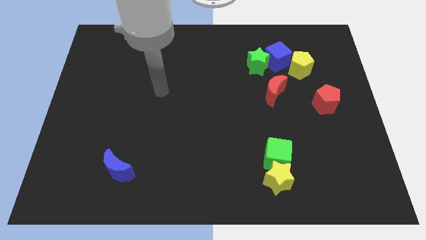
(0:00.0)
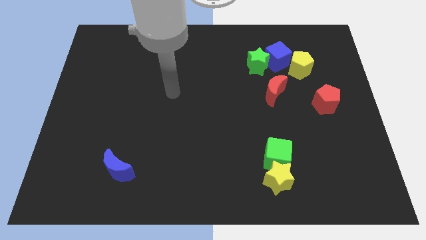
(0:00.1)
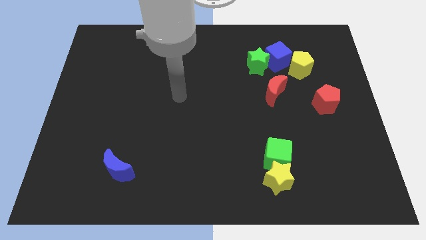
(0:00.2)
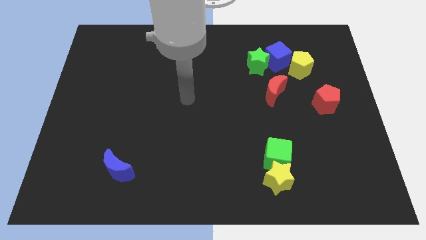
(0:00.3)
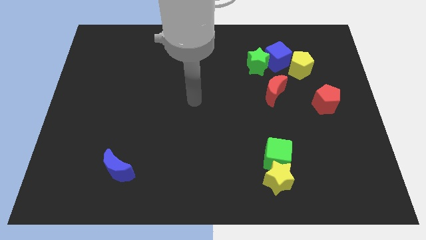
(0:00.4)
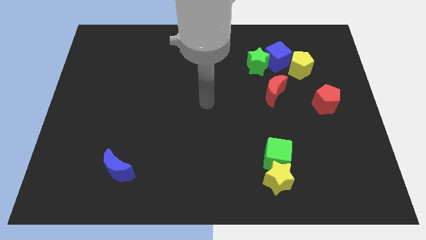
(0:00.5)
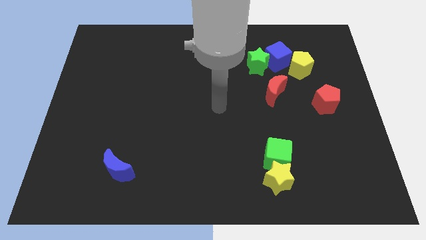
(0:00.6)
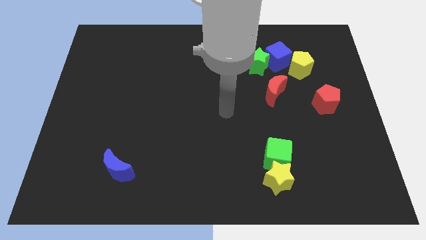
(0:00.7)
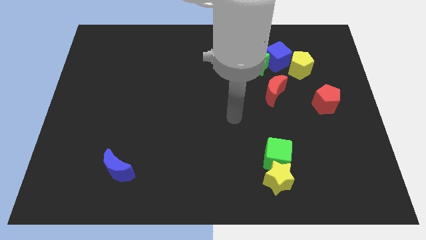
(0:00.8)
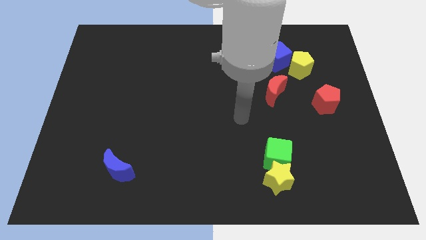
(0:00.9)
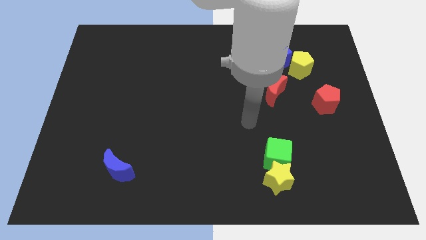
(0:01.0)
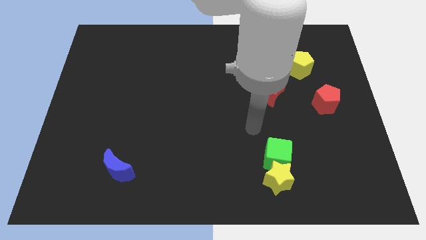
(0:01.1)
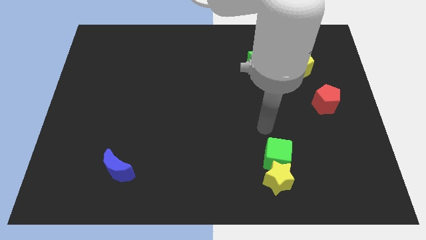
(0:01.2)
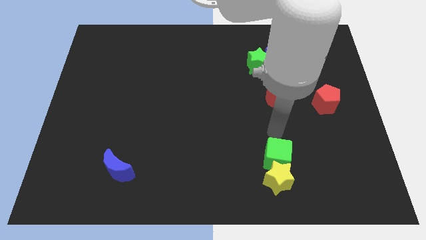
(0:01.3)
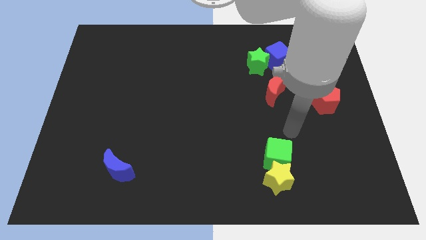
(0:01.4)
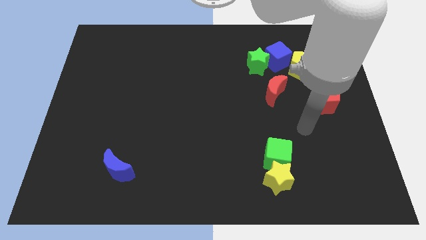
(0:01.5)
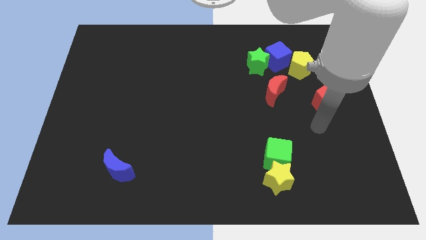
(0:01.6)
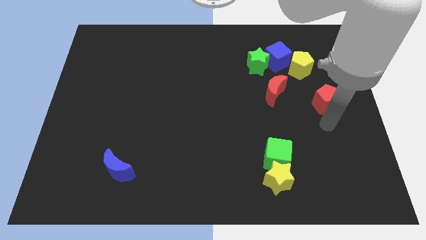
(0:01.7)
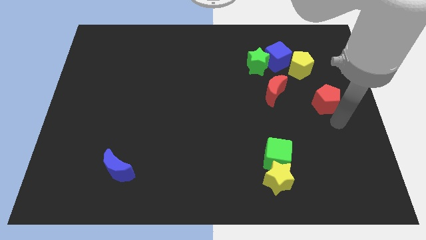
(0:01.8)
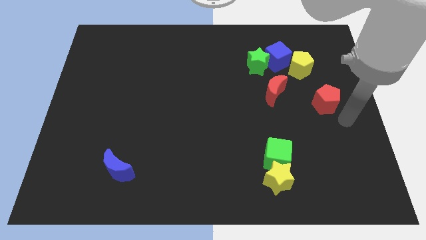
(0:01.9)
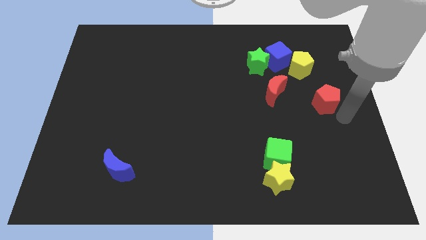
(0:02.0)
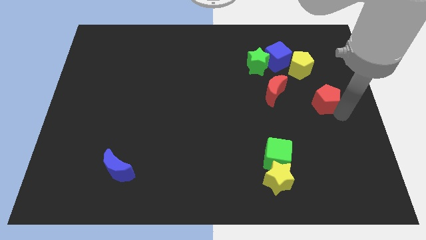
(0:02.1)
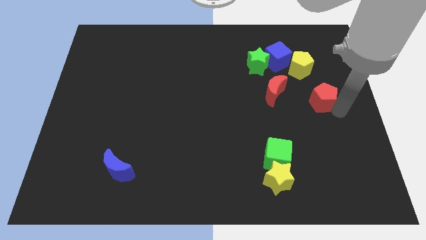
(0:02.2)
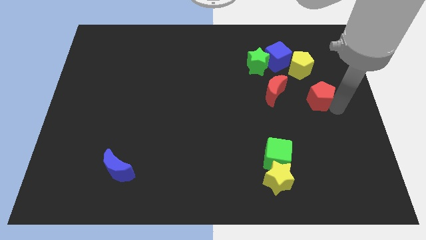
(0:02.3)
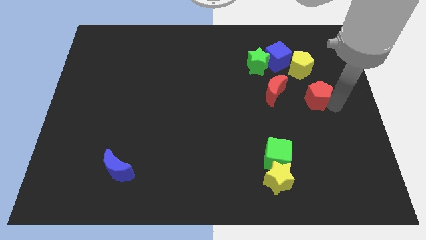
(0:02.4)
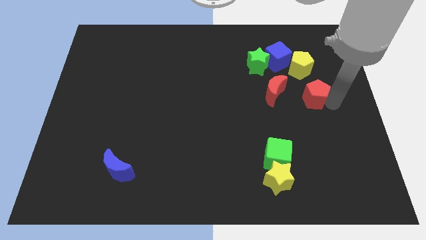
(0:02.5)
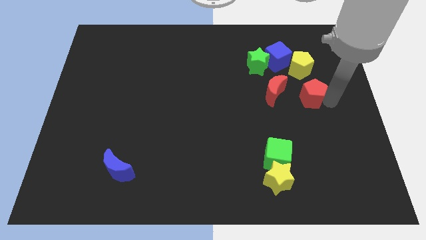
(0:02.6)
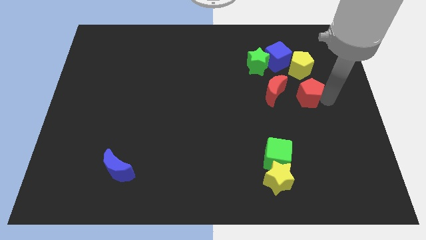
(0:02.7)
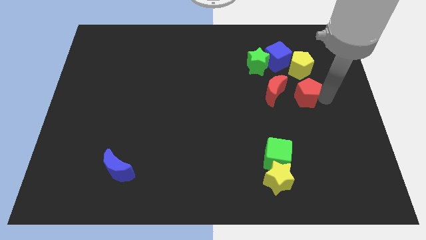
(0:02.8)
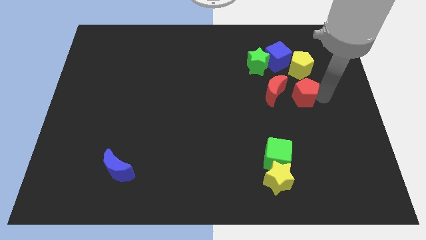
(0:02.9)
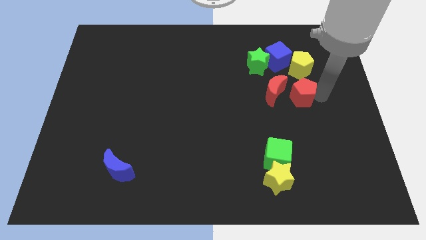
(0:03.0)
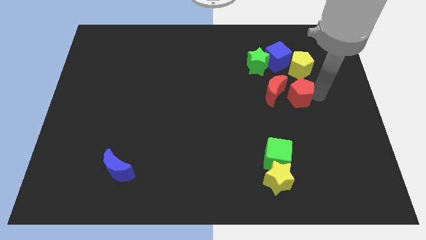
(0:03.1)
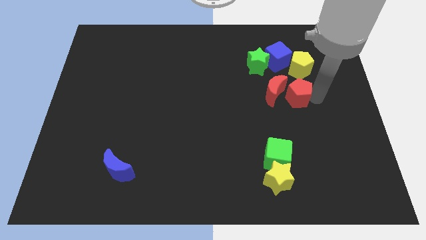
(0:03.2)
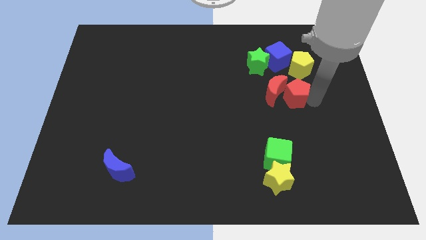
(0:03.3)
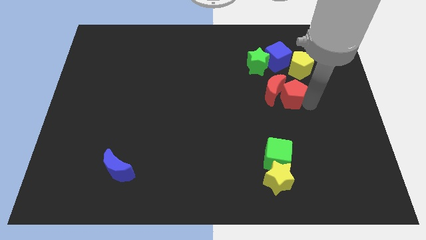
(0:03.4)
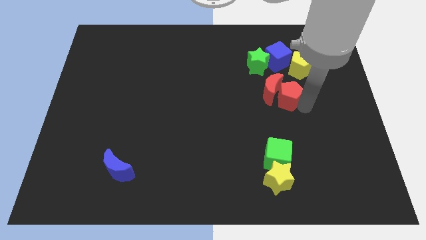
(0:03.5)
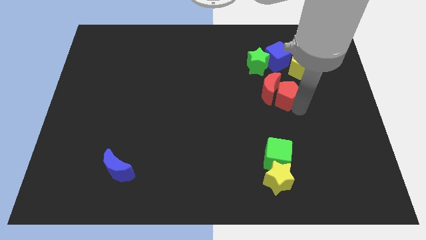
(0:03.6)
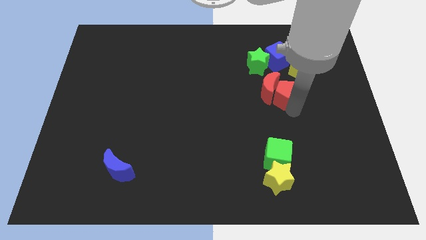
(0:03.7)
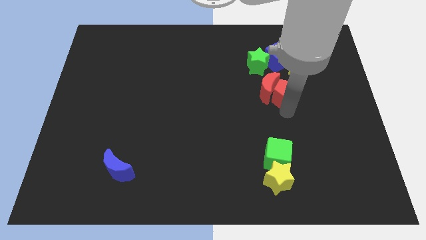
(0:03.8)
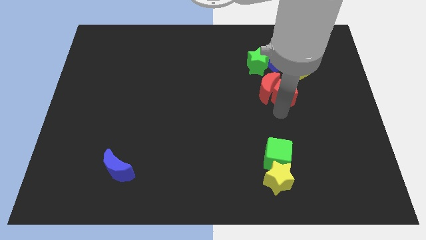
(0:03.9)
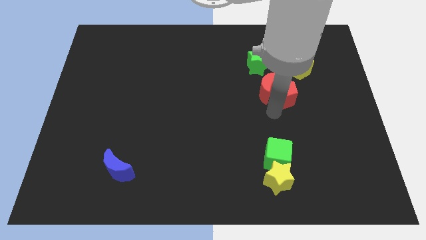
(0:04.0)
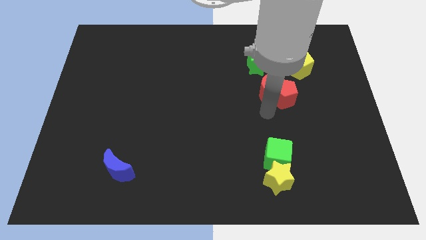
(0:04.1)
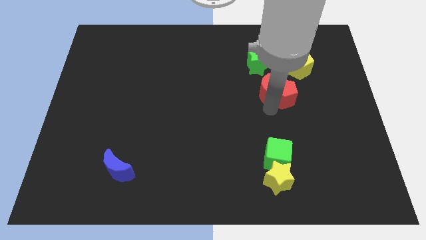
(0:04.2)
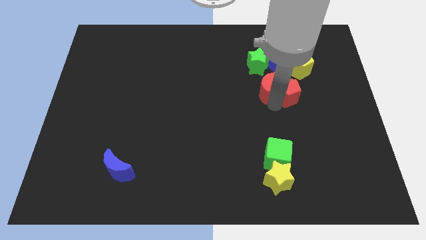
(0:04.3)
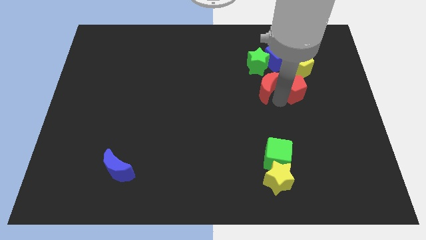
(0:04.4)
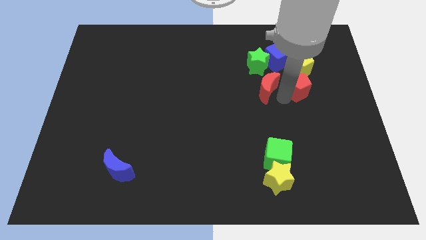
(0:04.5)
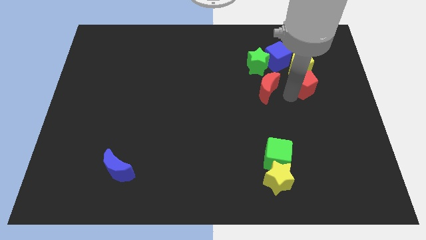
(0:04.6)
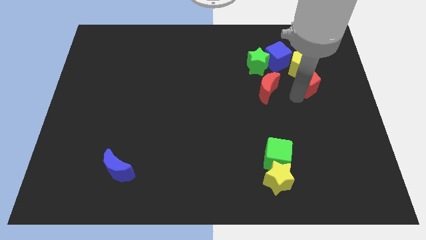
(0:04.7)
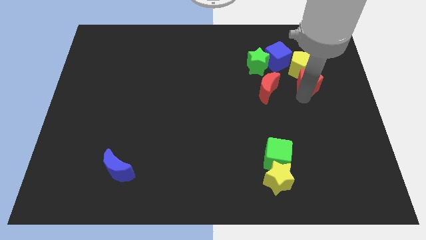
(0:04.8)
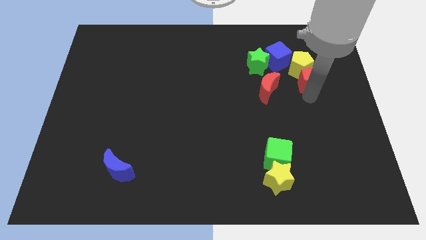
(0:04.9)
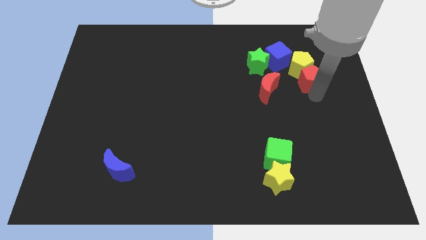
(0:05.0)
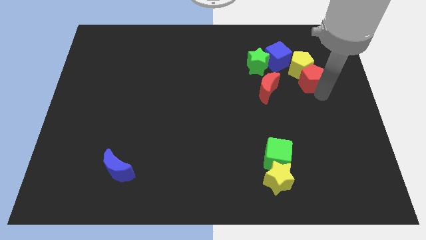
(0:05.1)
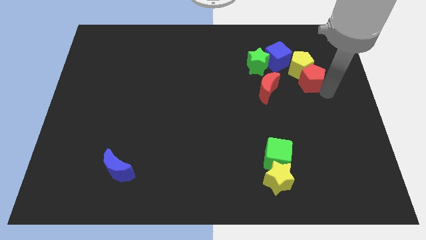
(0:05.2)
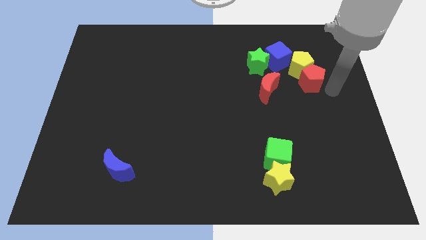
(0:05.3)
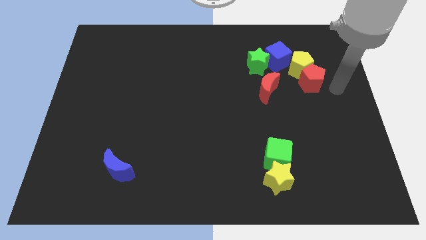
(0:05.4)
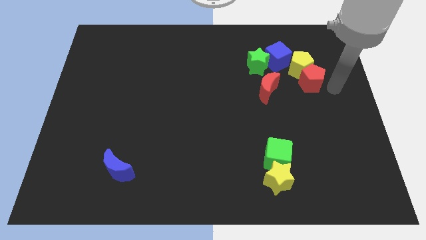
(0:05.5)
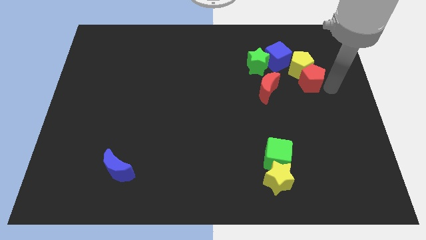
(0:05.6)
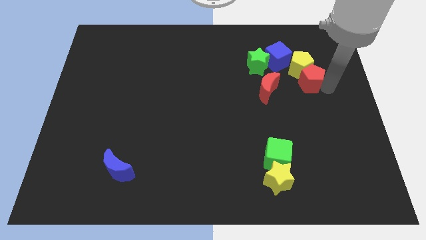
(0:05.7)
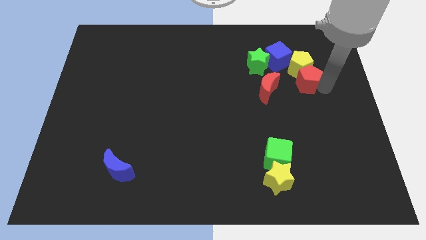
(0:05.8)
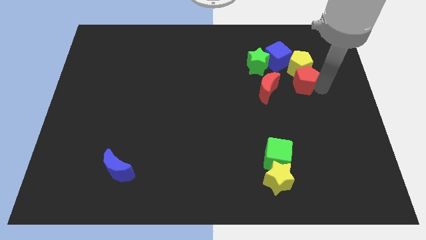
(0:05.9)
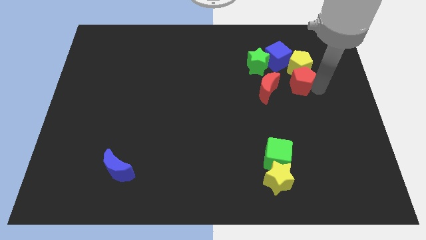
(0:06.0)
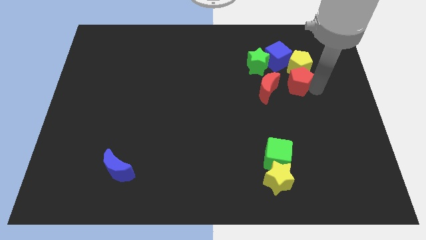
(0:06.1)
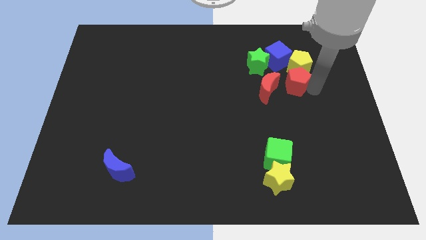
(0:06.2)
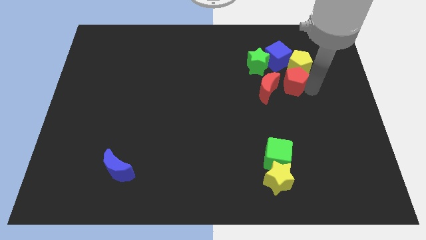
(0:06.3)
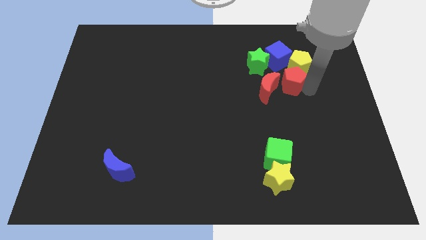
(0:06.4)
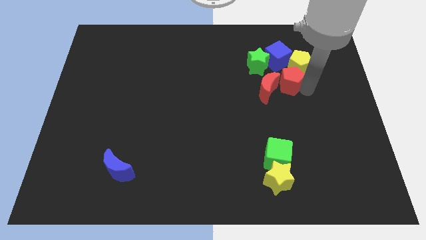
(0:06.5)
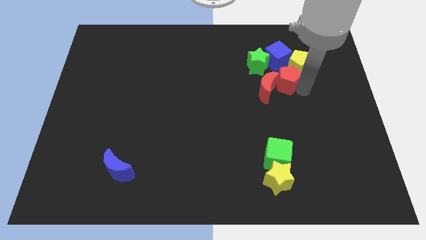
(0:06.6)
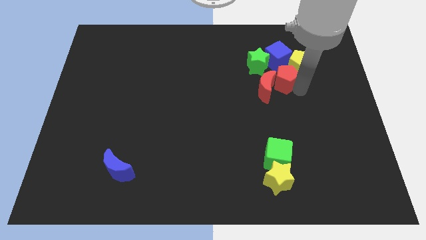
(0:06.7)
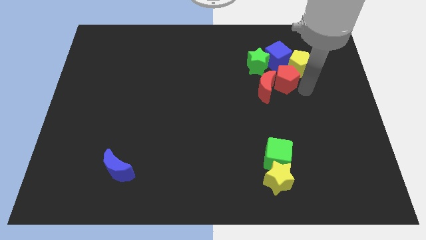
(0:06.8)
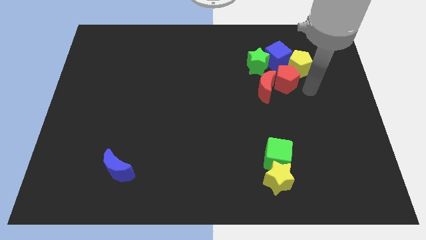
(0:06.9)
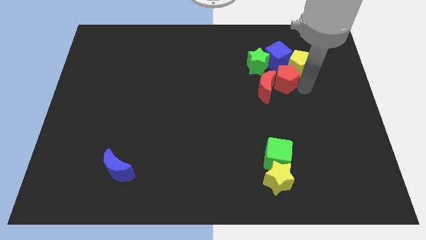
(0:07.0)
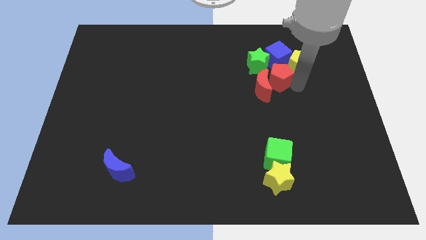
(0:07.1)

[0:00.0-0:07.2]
put the red pentagon to the bottom left side of the blue cube
